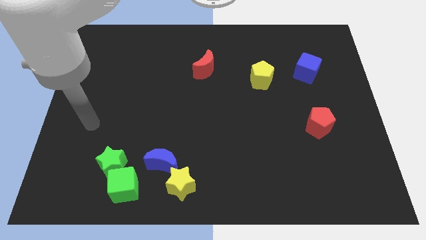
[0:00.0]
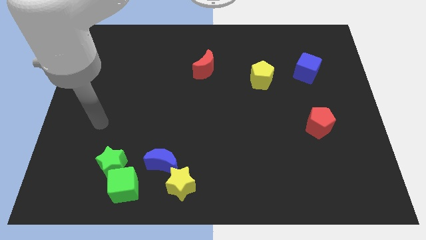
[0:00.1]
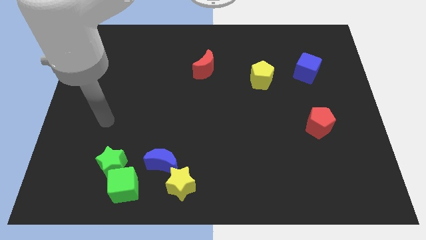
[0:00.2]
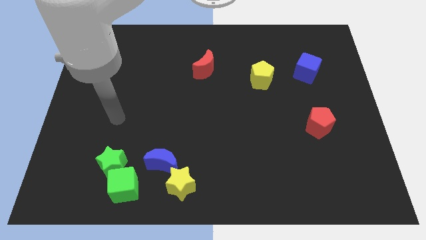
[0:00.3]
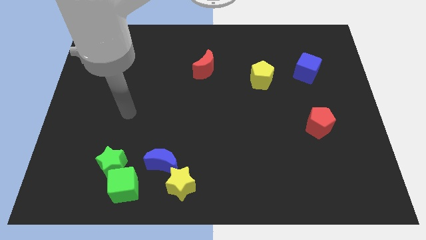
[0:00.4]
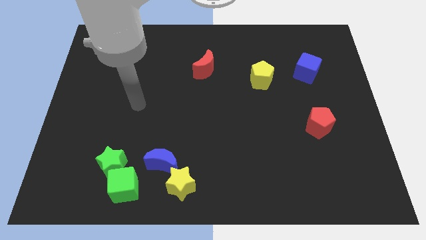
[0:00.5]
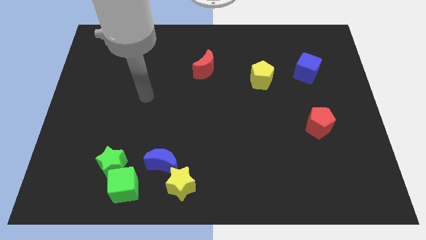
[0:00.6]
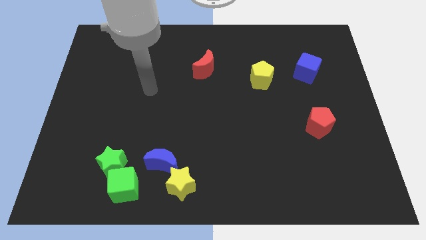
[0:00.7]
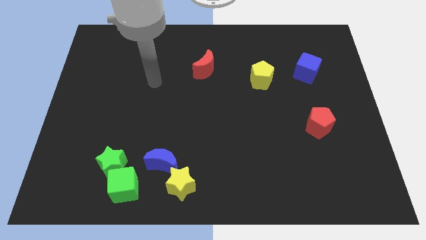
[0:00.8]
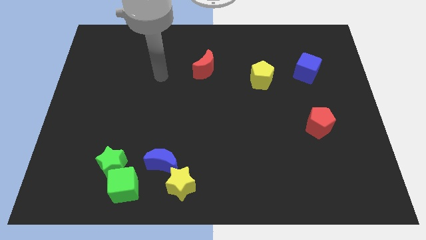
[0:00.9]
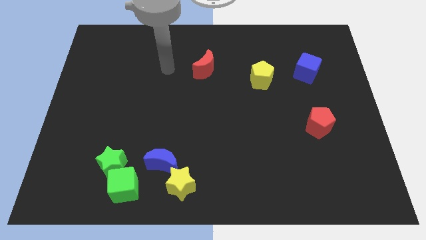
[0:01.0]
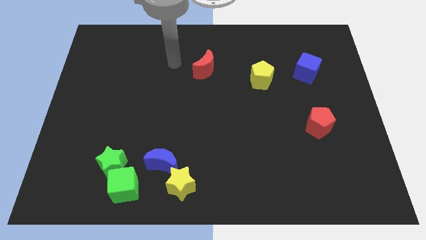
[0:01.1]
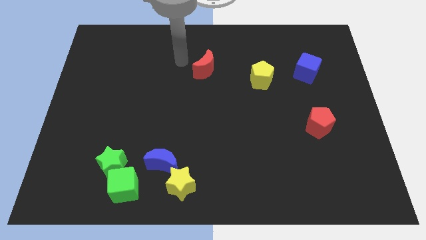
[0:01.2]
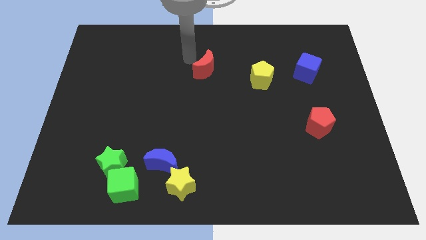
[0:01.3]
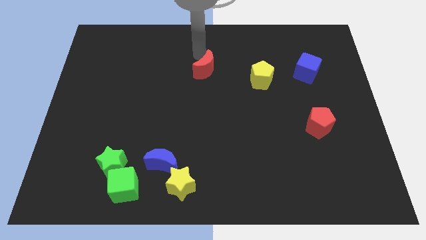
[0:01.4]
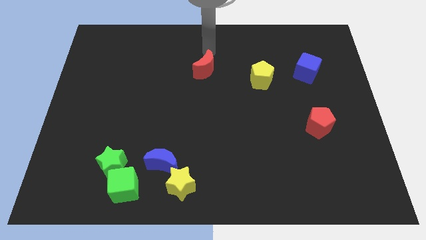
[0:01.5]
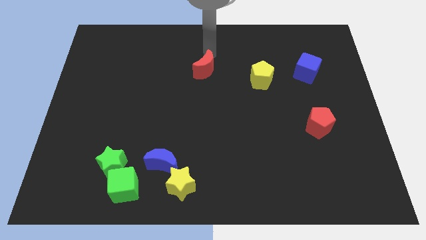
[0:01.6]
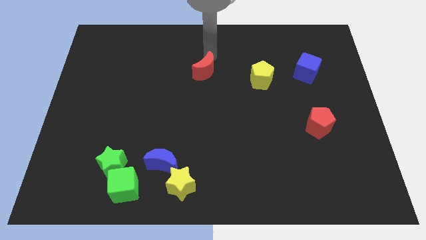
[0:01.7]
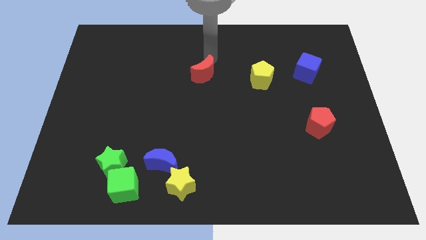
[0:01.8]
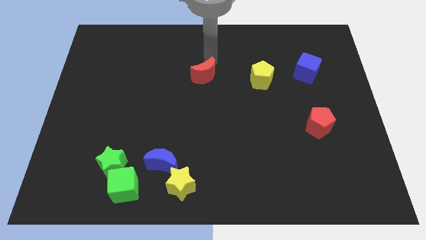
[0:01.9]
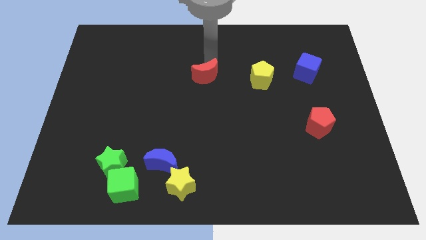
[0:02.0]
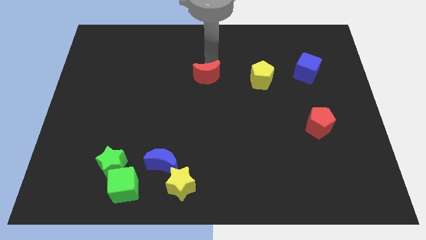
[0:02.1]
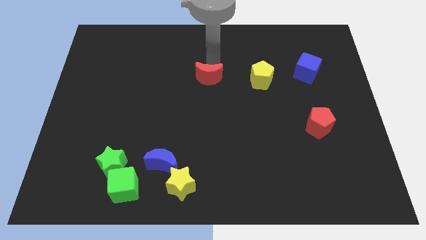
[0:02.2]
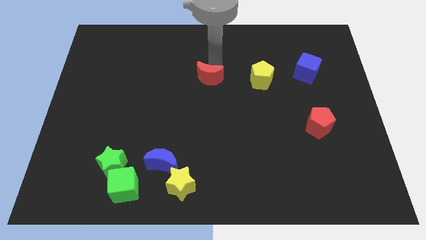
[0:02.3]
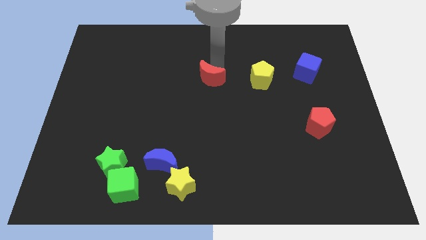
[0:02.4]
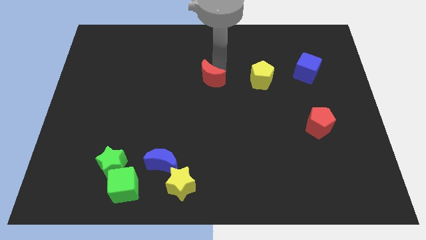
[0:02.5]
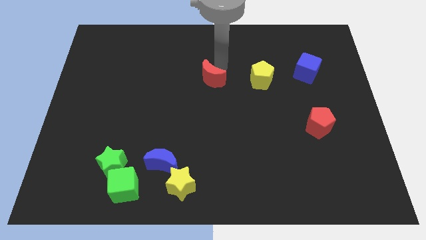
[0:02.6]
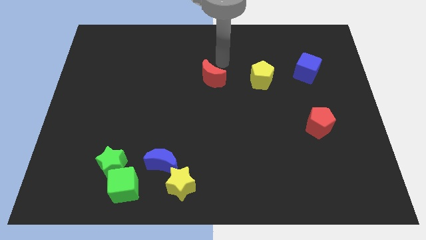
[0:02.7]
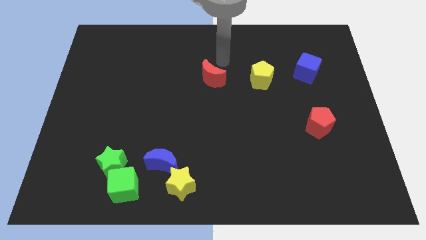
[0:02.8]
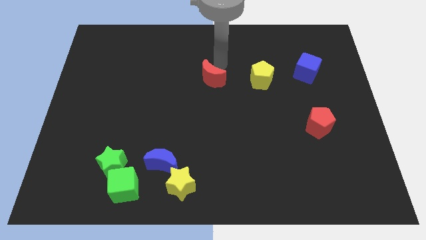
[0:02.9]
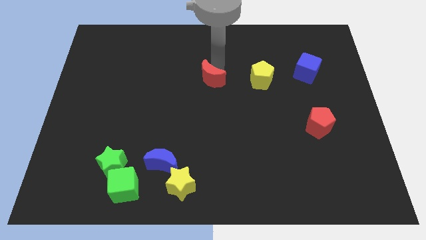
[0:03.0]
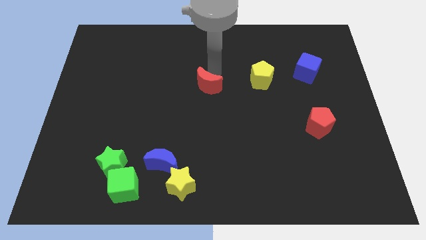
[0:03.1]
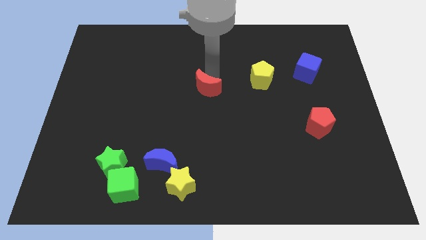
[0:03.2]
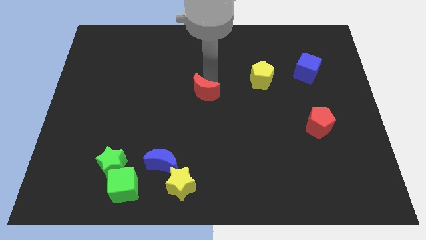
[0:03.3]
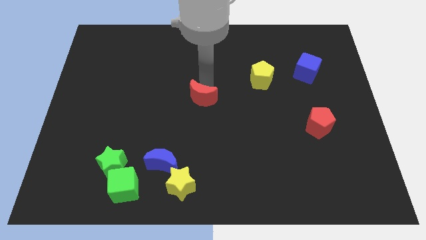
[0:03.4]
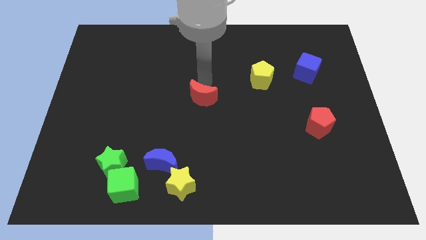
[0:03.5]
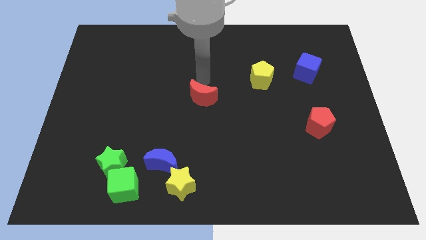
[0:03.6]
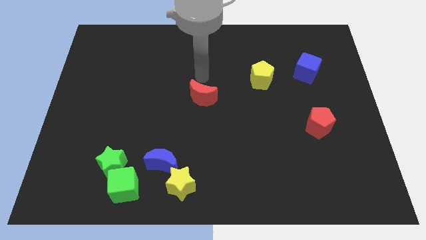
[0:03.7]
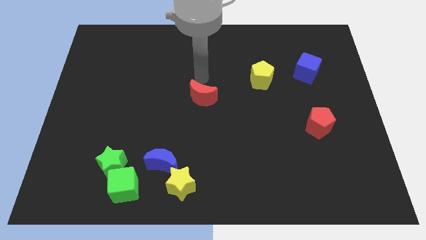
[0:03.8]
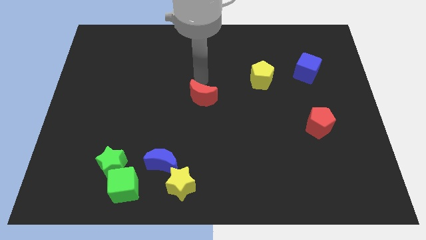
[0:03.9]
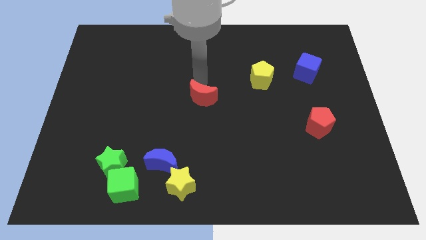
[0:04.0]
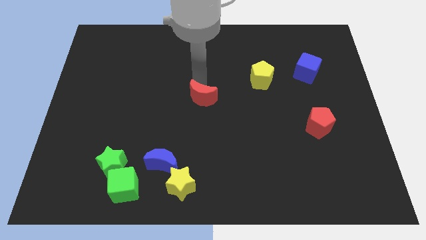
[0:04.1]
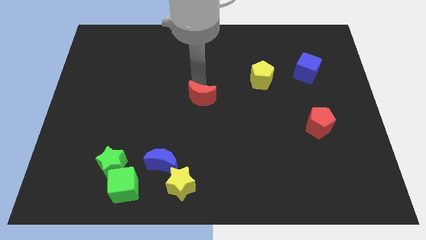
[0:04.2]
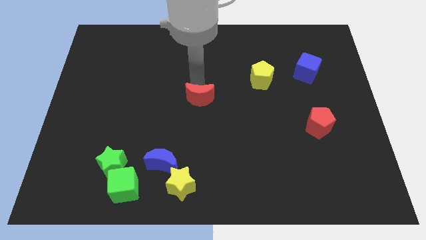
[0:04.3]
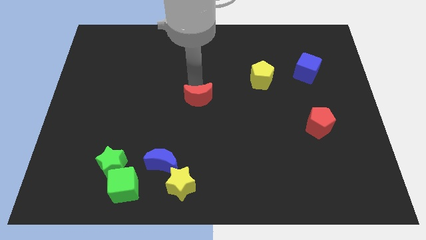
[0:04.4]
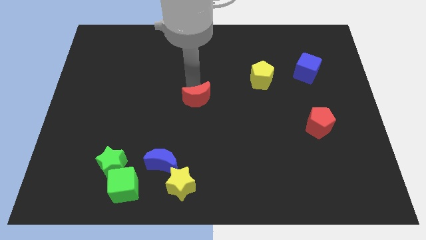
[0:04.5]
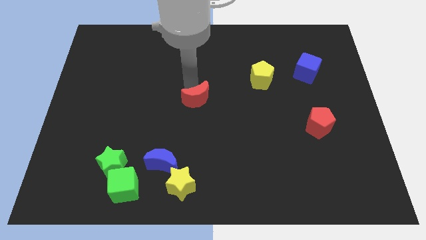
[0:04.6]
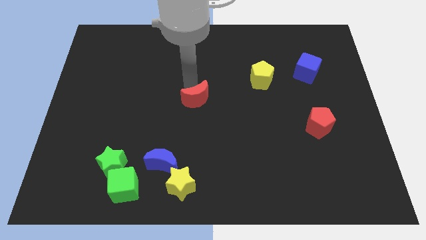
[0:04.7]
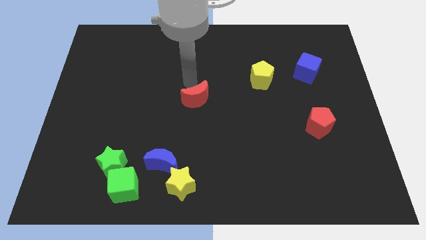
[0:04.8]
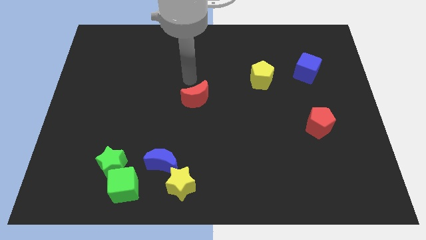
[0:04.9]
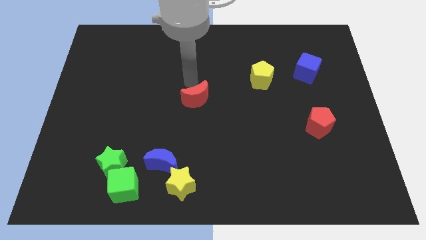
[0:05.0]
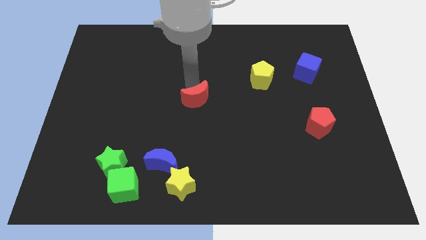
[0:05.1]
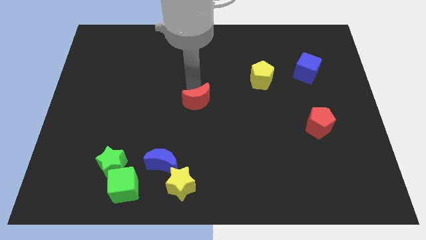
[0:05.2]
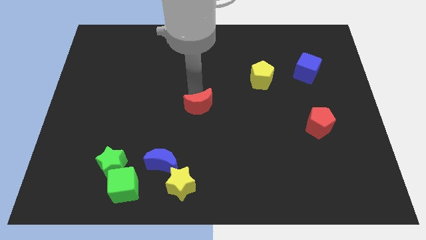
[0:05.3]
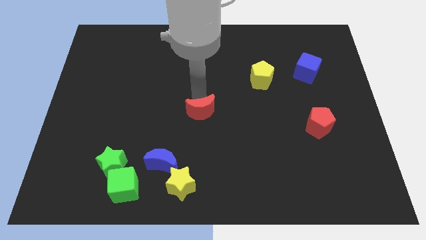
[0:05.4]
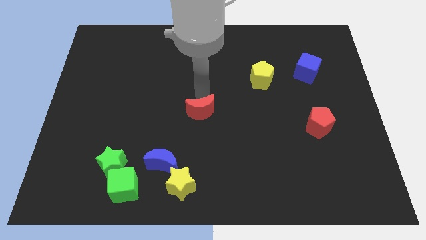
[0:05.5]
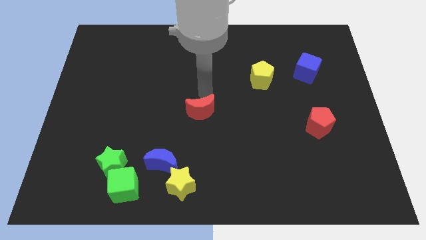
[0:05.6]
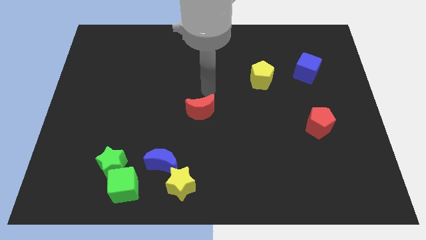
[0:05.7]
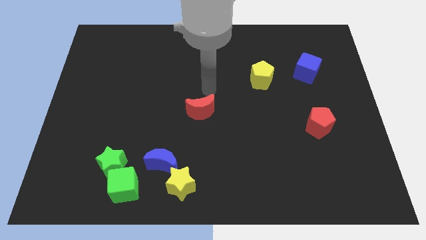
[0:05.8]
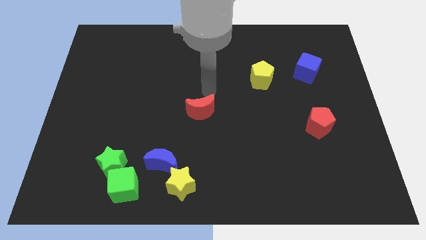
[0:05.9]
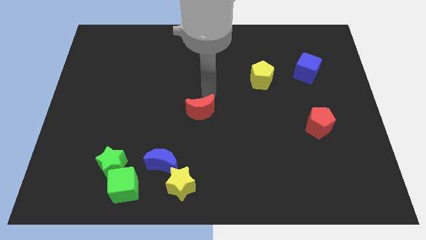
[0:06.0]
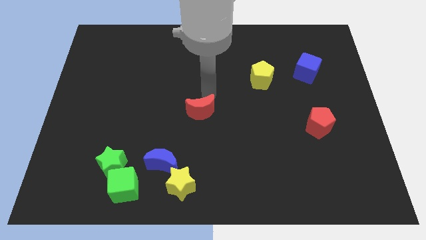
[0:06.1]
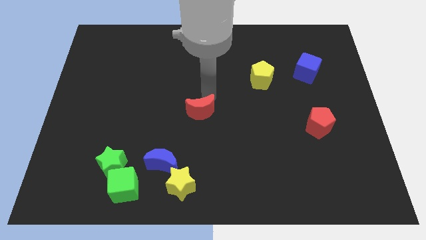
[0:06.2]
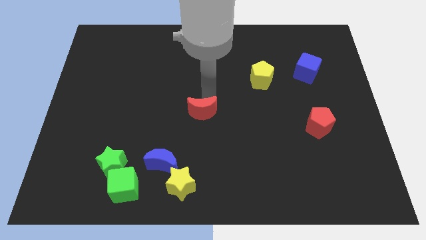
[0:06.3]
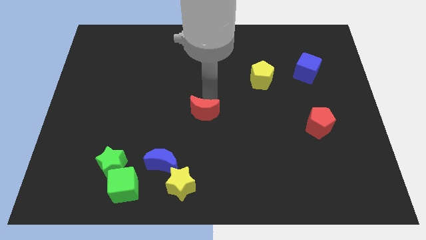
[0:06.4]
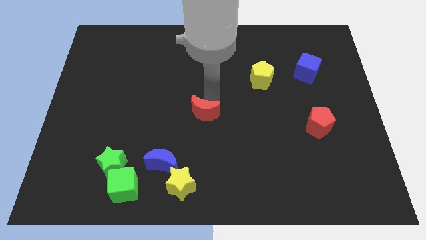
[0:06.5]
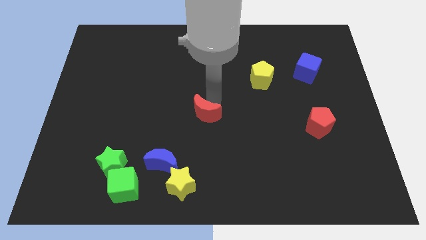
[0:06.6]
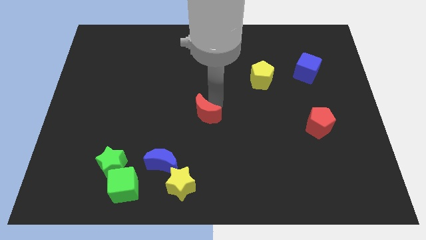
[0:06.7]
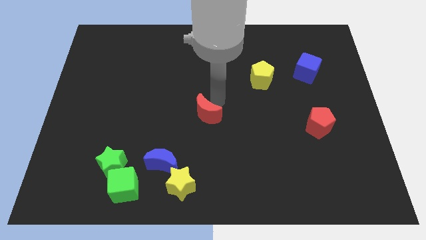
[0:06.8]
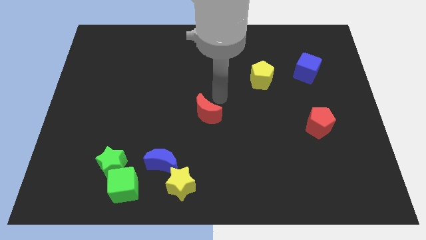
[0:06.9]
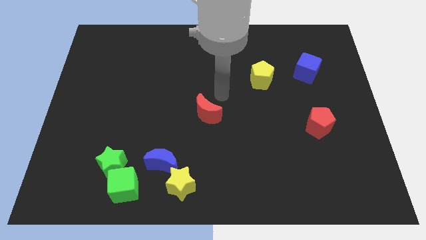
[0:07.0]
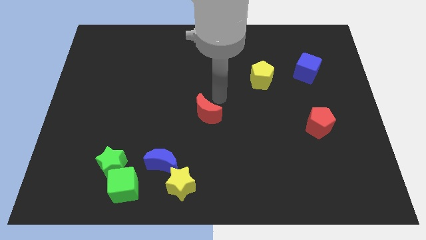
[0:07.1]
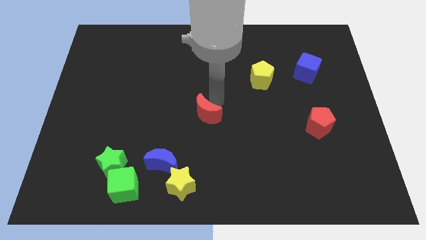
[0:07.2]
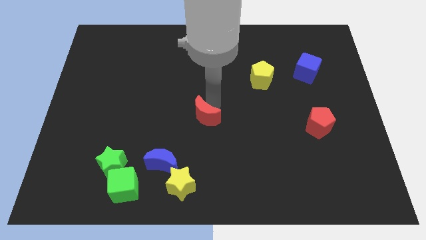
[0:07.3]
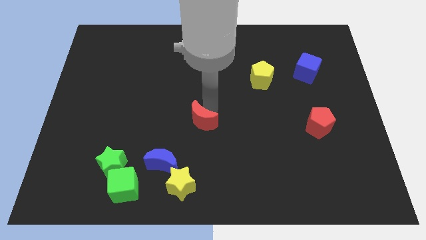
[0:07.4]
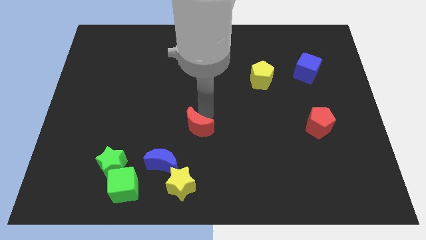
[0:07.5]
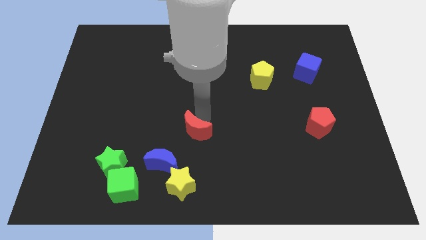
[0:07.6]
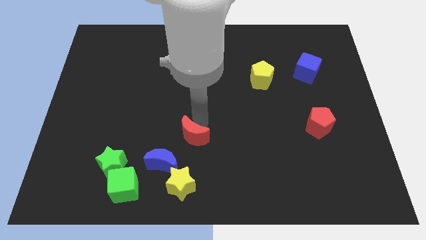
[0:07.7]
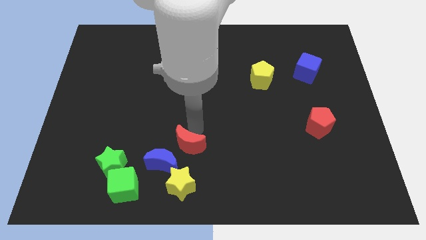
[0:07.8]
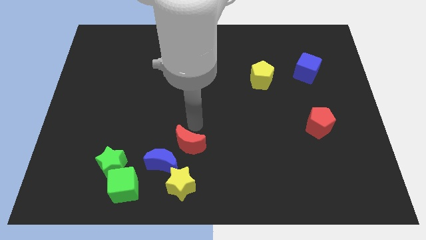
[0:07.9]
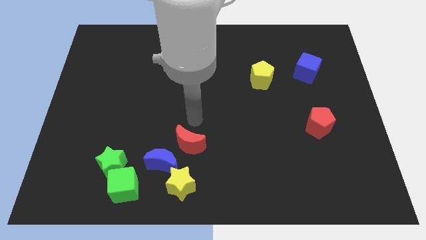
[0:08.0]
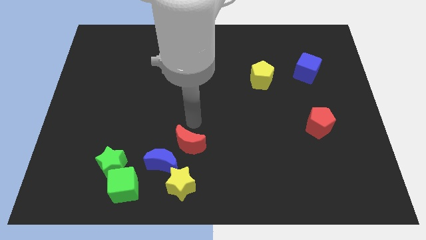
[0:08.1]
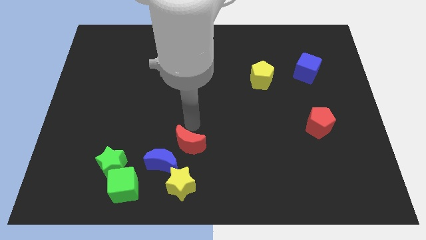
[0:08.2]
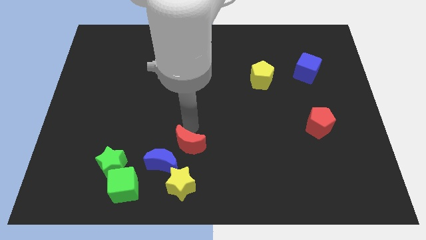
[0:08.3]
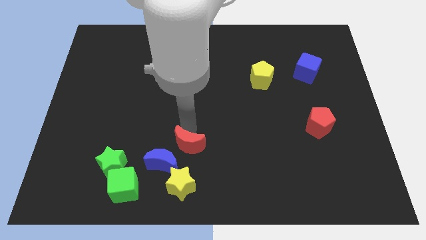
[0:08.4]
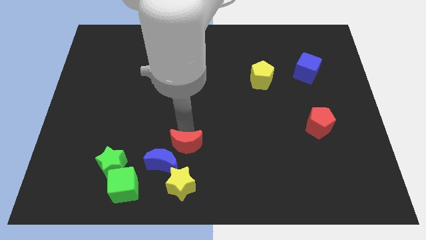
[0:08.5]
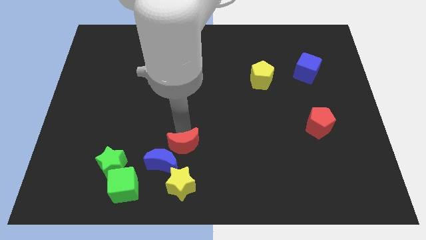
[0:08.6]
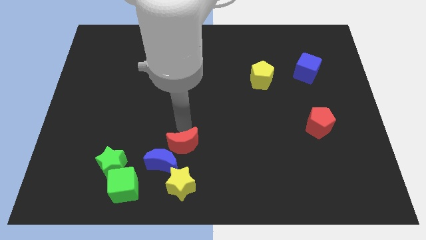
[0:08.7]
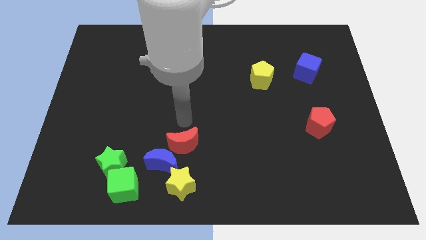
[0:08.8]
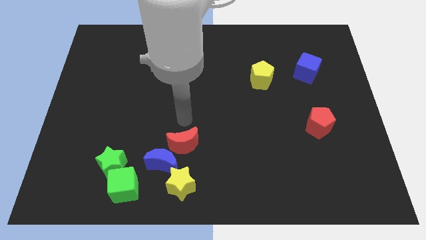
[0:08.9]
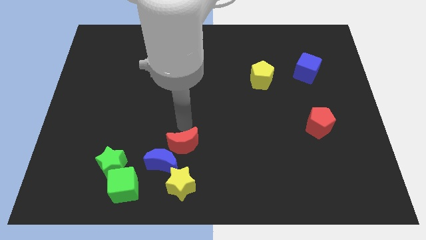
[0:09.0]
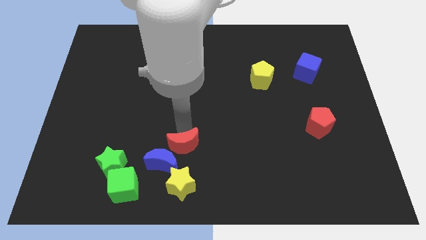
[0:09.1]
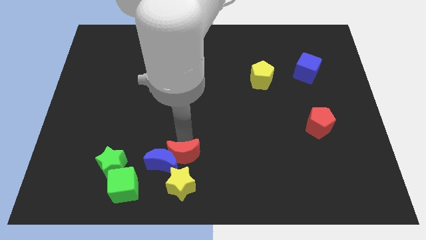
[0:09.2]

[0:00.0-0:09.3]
slide the red moon right of the green star
